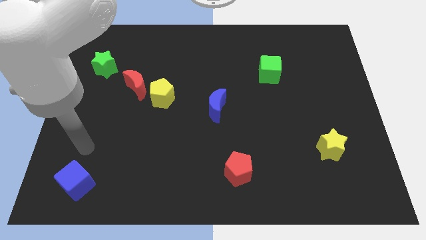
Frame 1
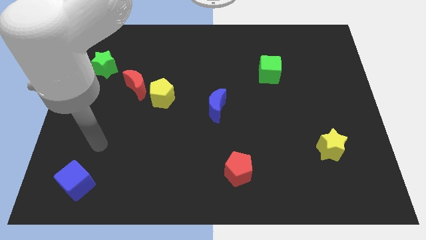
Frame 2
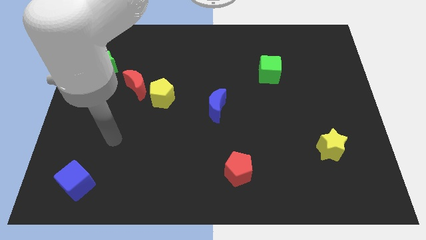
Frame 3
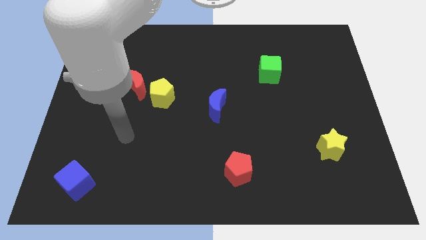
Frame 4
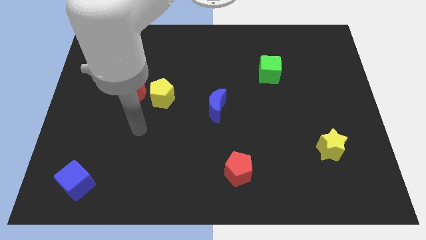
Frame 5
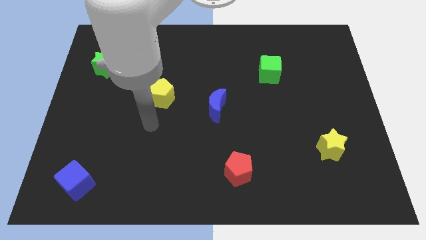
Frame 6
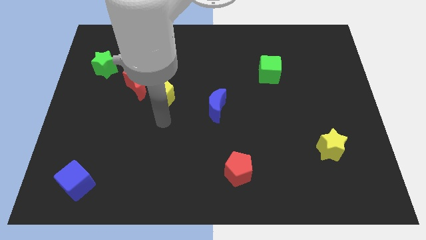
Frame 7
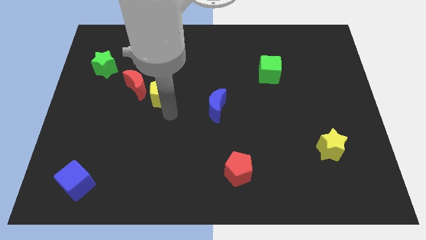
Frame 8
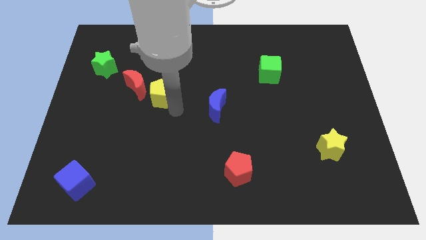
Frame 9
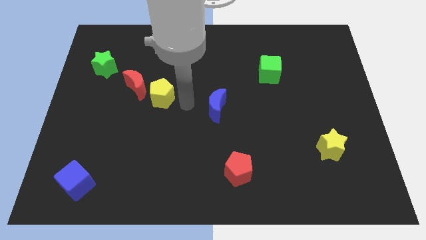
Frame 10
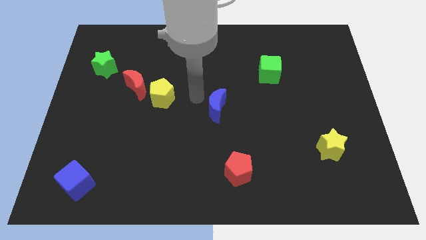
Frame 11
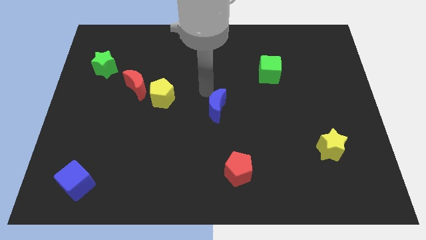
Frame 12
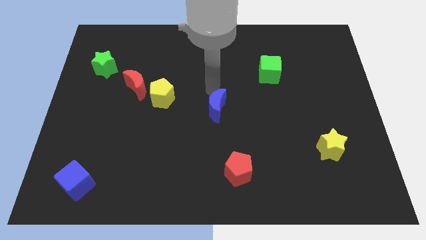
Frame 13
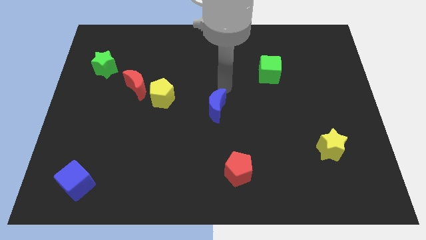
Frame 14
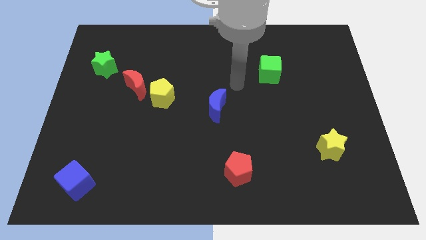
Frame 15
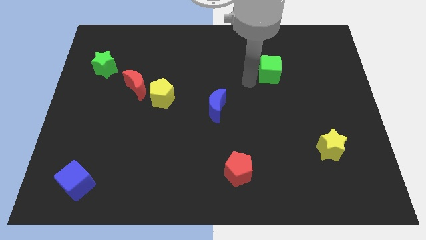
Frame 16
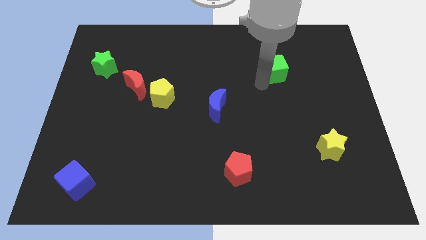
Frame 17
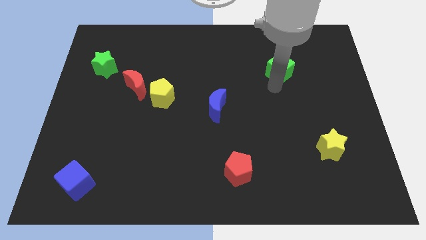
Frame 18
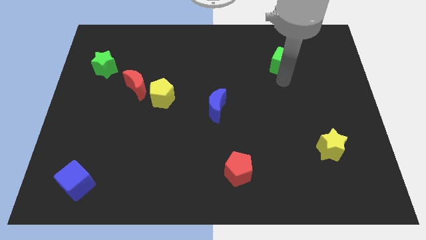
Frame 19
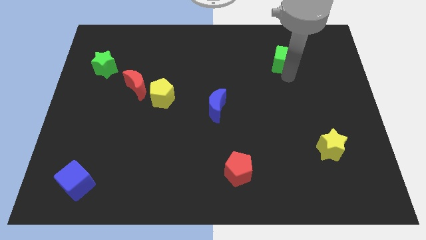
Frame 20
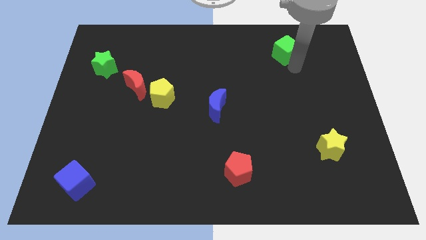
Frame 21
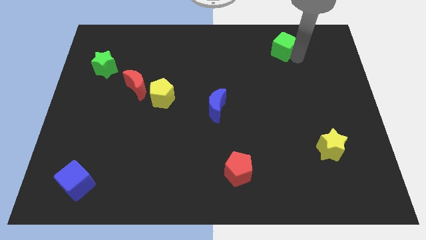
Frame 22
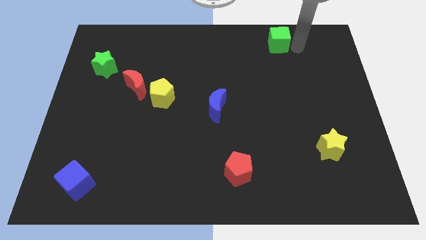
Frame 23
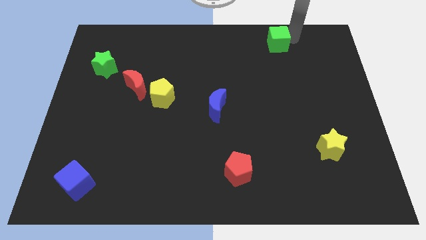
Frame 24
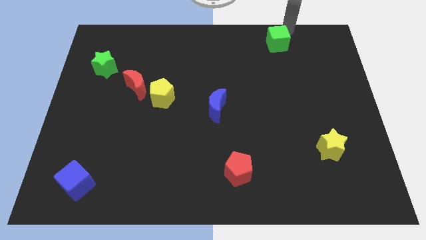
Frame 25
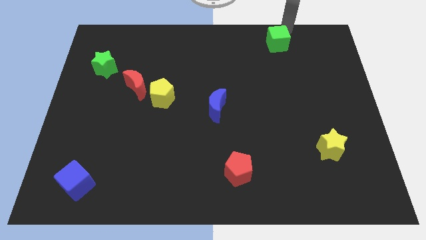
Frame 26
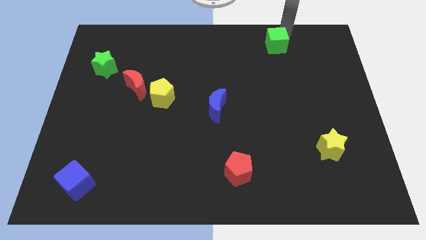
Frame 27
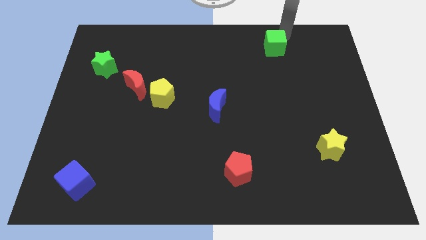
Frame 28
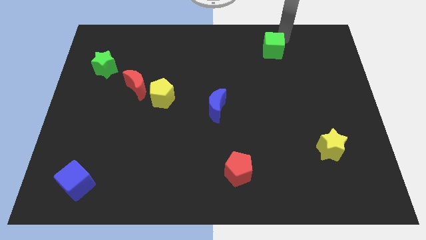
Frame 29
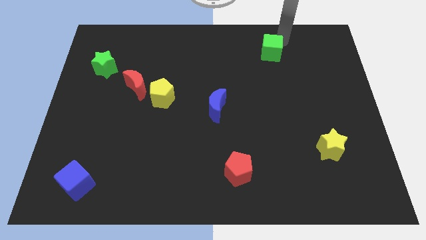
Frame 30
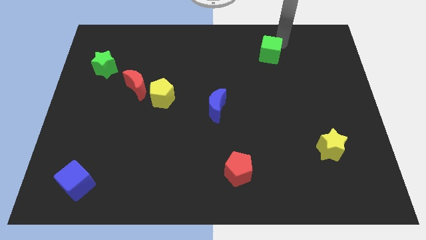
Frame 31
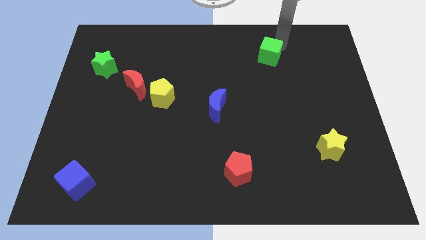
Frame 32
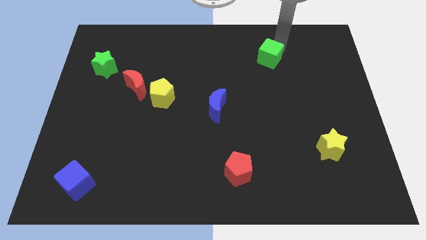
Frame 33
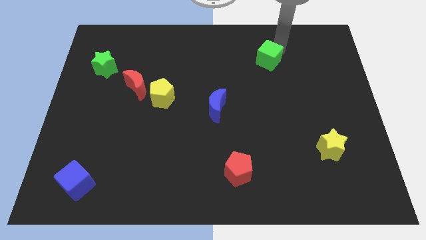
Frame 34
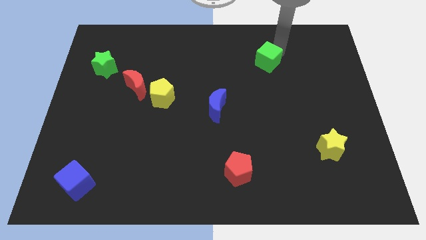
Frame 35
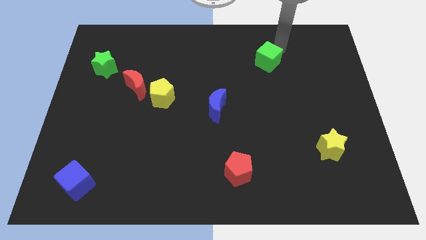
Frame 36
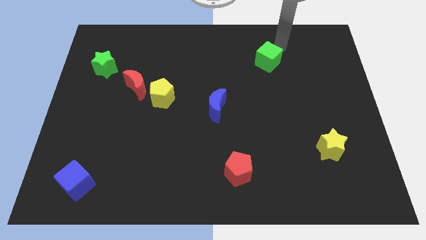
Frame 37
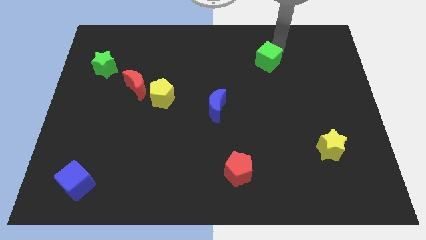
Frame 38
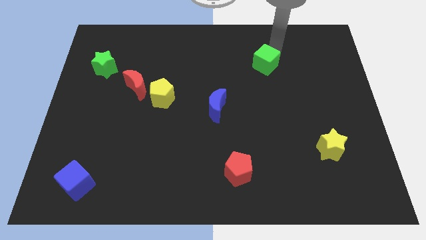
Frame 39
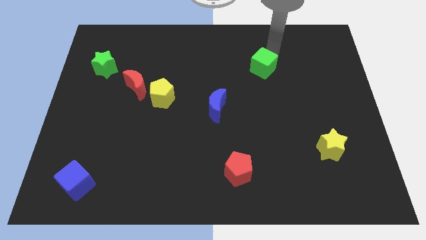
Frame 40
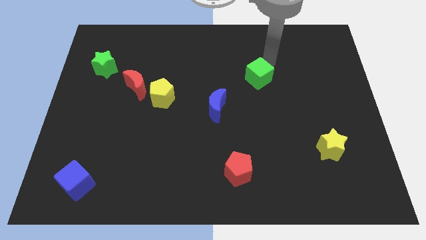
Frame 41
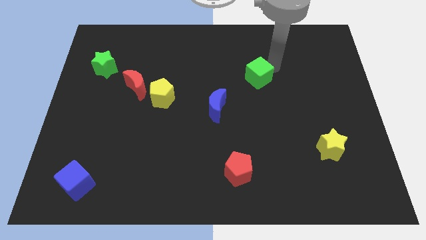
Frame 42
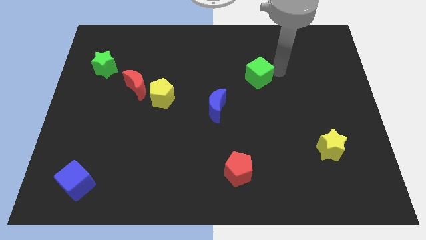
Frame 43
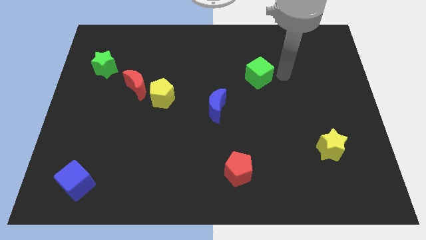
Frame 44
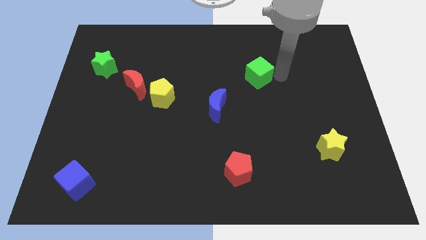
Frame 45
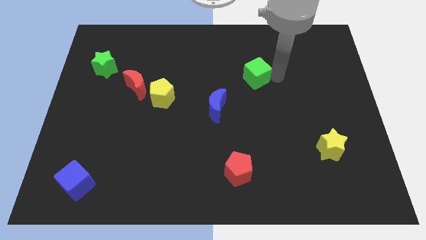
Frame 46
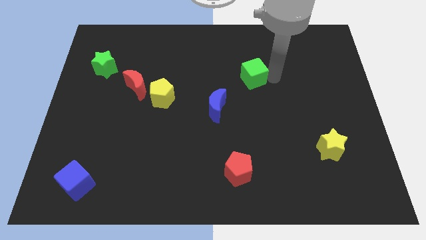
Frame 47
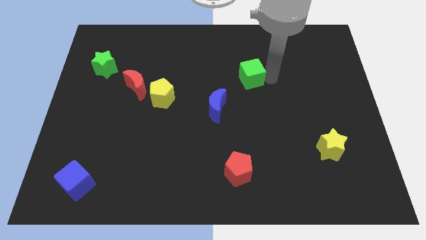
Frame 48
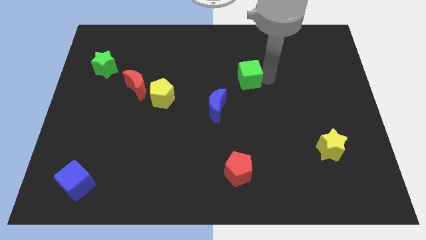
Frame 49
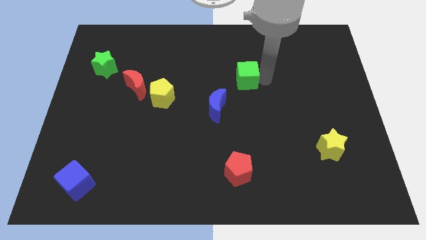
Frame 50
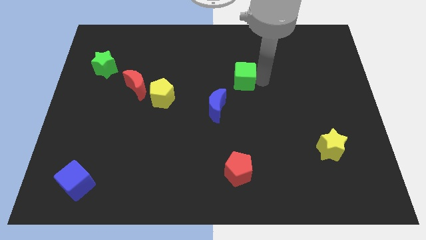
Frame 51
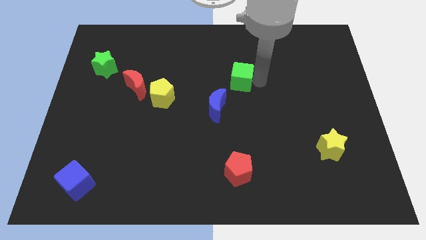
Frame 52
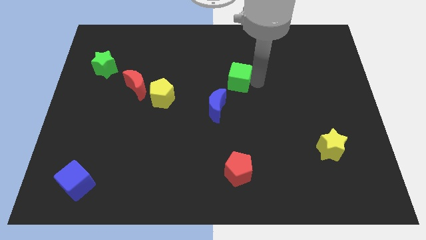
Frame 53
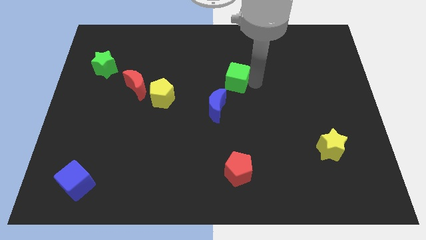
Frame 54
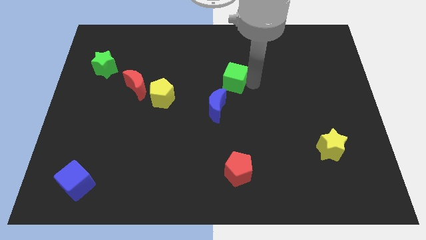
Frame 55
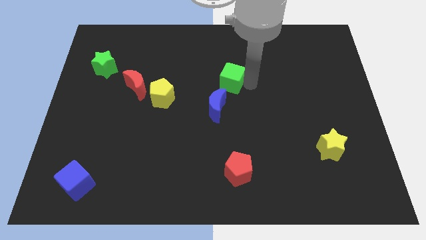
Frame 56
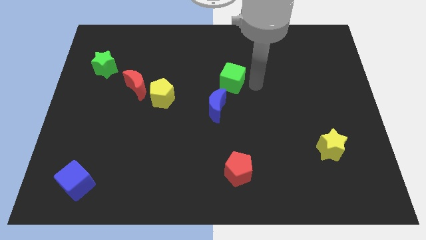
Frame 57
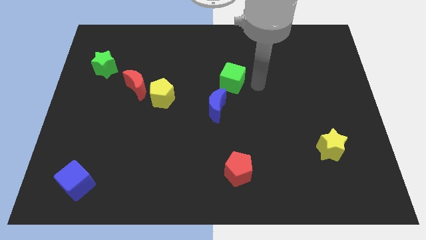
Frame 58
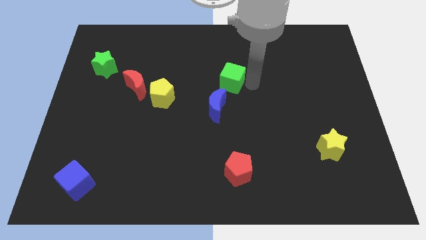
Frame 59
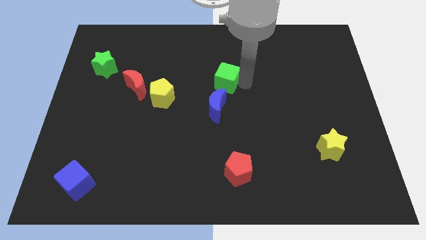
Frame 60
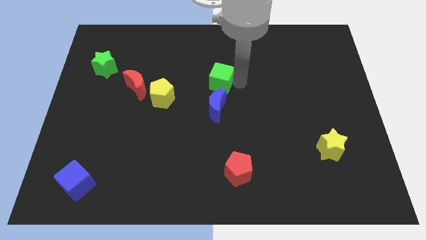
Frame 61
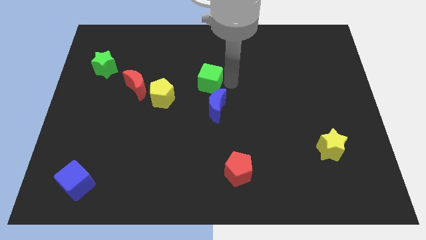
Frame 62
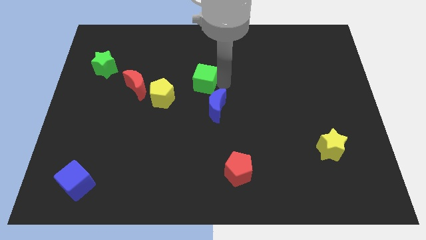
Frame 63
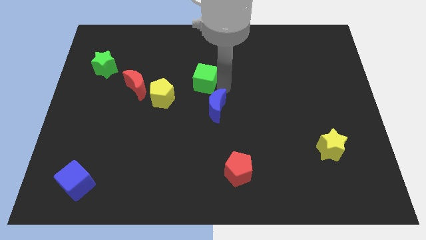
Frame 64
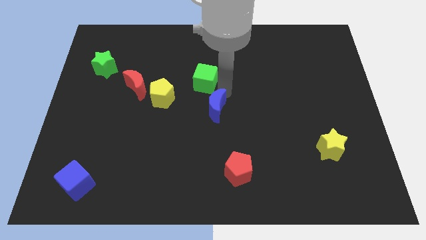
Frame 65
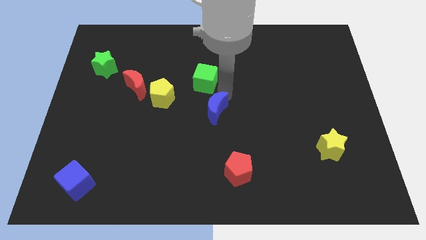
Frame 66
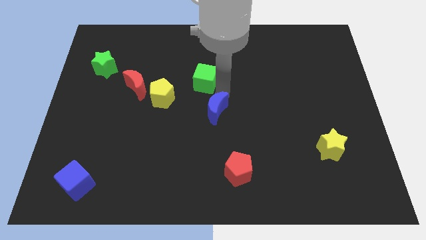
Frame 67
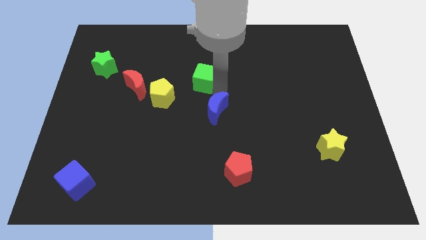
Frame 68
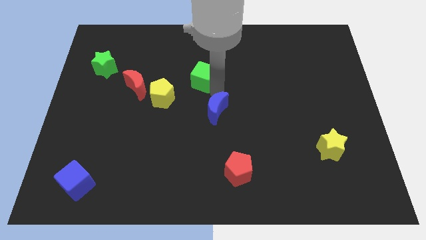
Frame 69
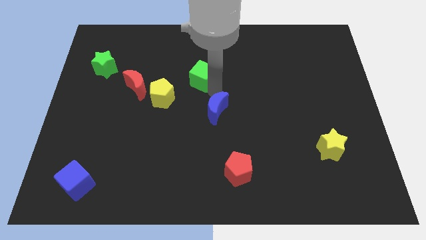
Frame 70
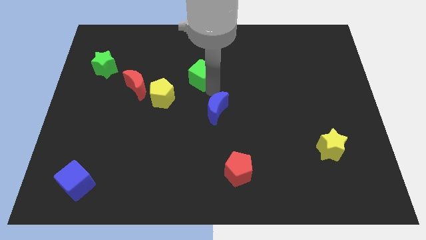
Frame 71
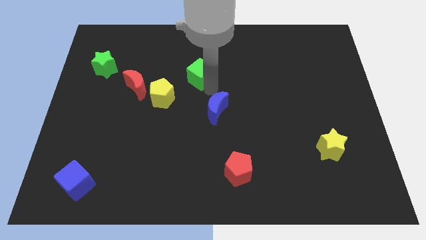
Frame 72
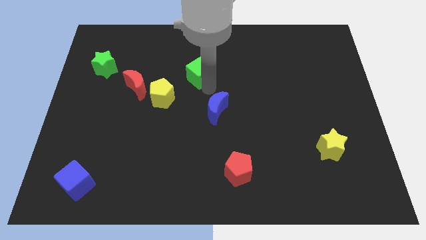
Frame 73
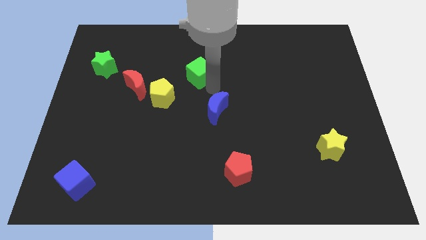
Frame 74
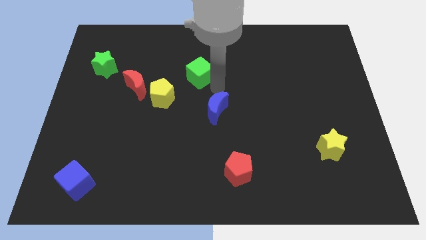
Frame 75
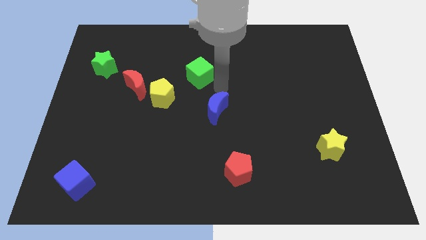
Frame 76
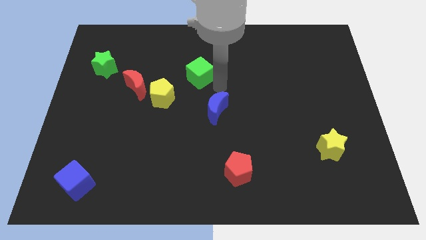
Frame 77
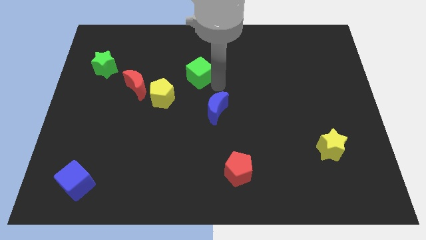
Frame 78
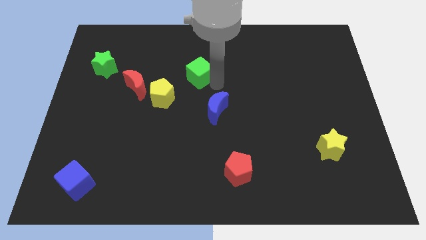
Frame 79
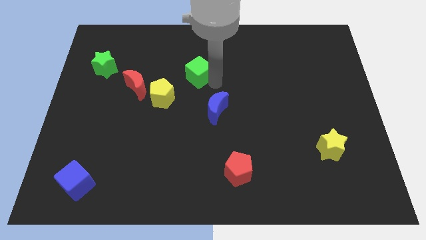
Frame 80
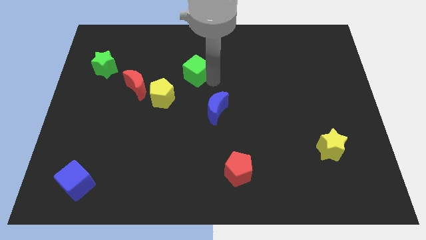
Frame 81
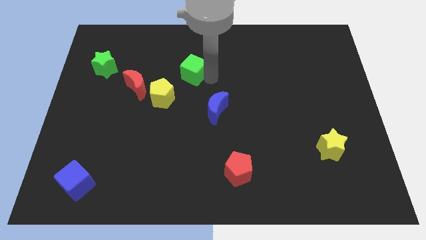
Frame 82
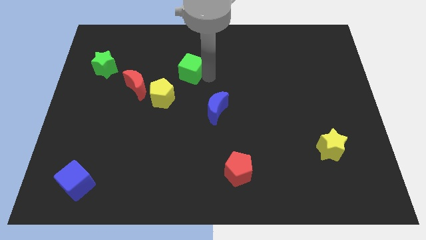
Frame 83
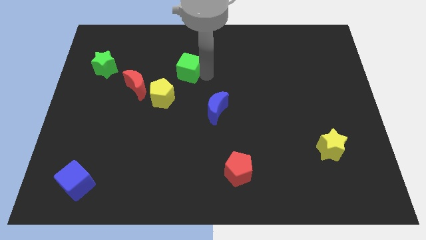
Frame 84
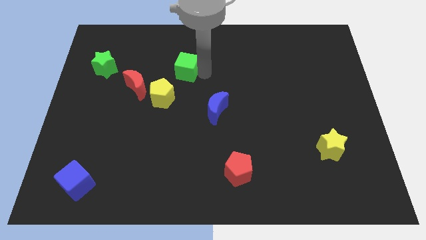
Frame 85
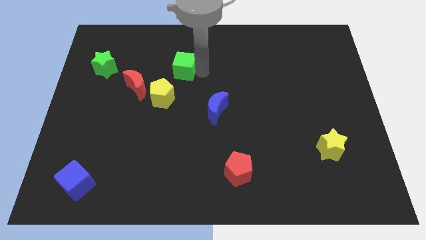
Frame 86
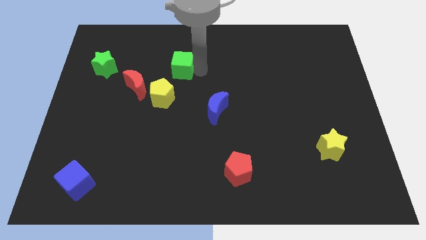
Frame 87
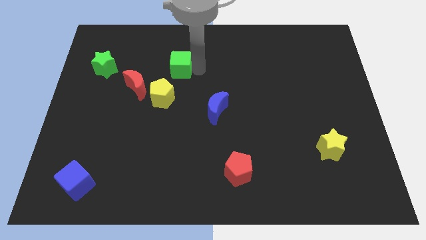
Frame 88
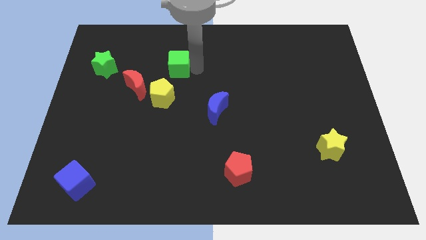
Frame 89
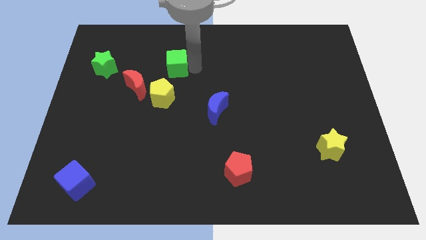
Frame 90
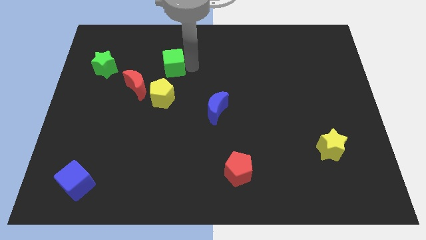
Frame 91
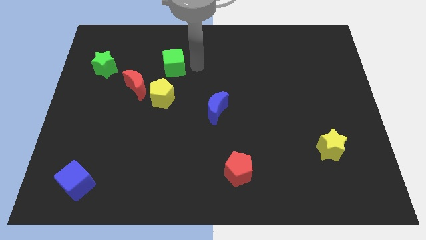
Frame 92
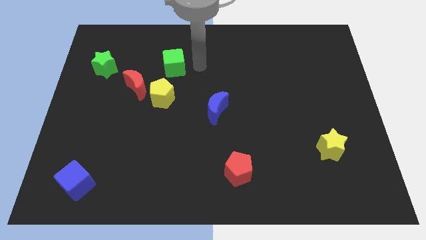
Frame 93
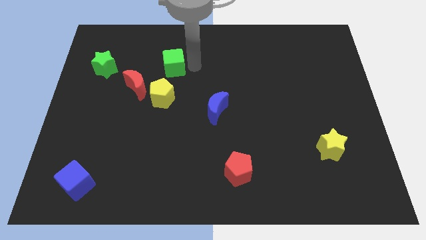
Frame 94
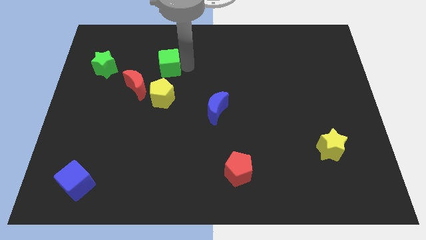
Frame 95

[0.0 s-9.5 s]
push the green cube to the right side of the green star
